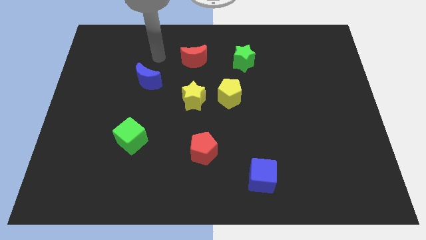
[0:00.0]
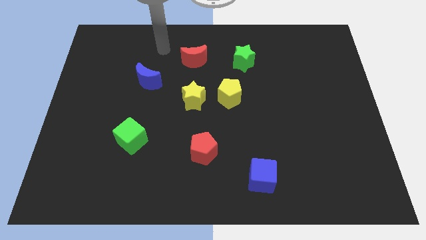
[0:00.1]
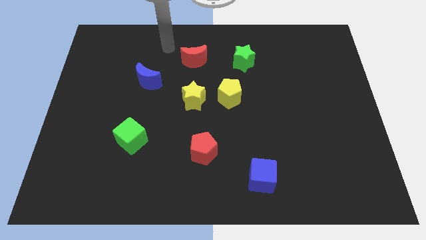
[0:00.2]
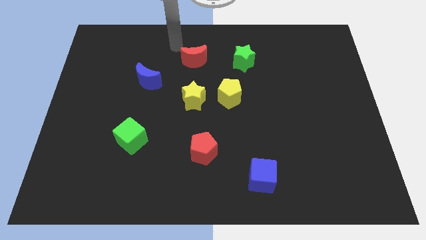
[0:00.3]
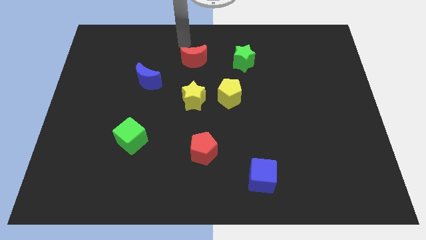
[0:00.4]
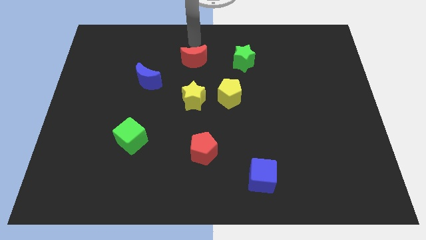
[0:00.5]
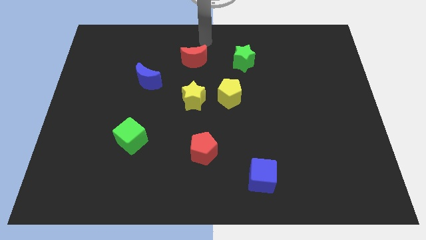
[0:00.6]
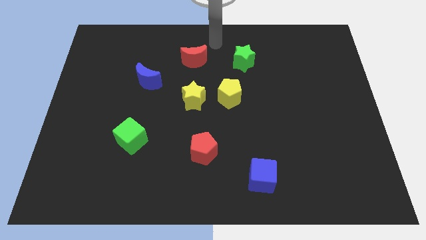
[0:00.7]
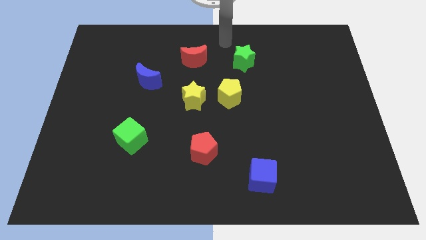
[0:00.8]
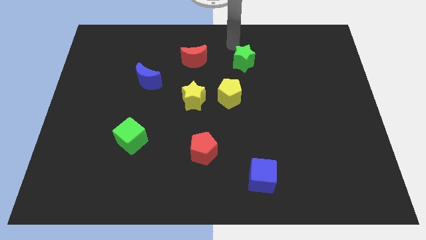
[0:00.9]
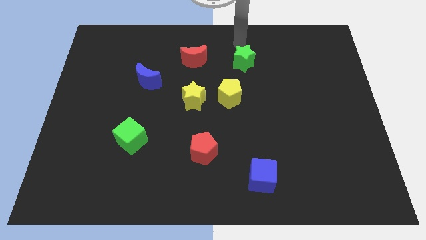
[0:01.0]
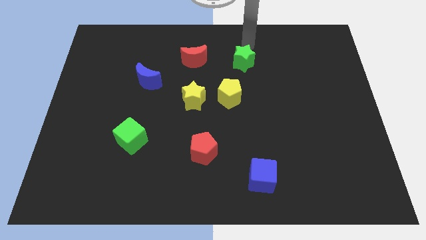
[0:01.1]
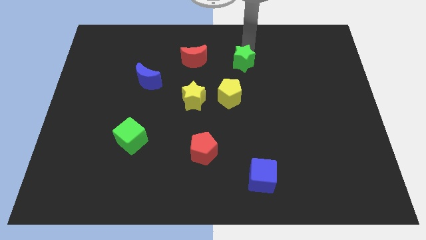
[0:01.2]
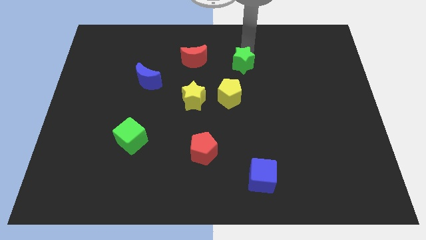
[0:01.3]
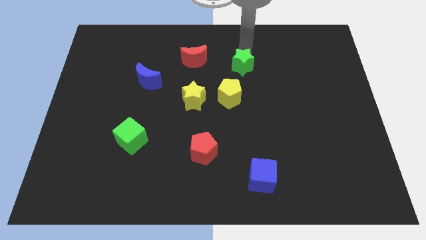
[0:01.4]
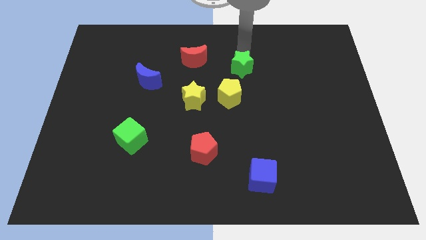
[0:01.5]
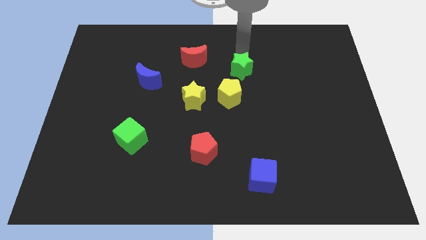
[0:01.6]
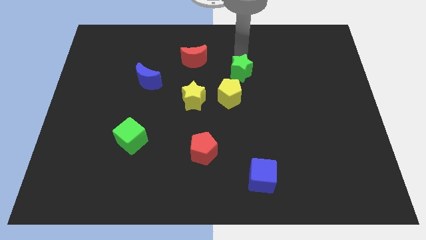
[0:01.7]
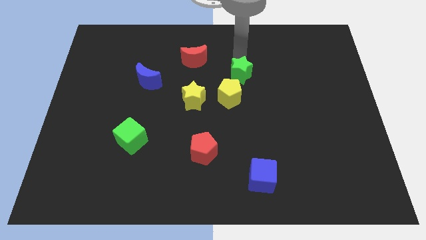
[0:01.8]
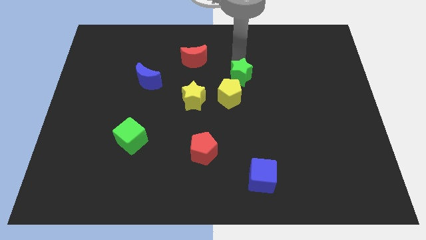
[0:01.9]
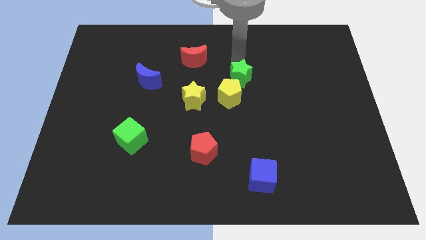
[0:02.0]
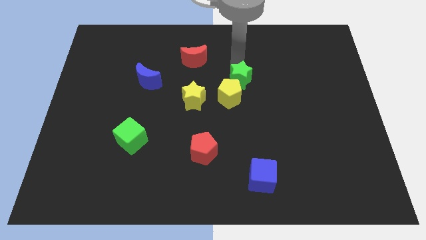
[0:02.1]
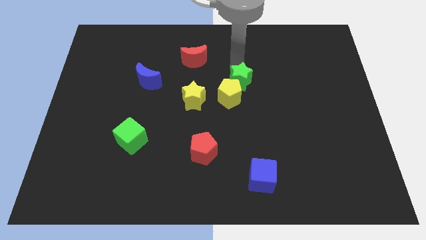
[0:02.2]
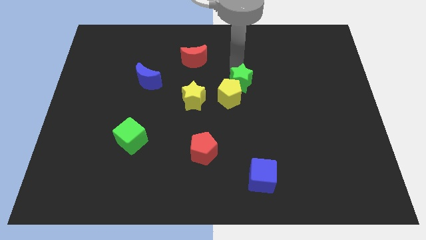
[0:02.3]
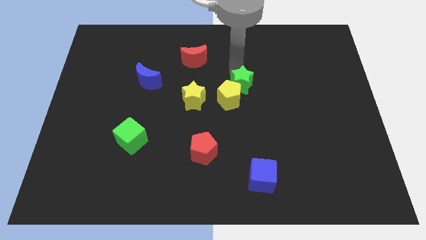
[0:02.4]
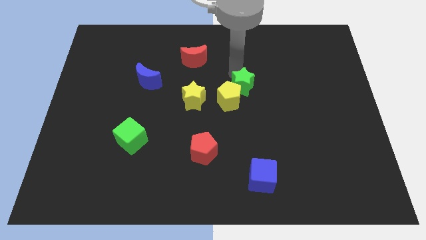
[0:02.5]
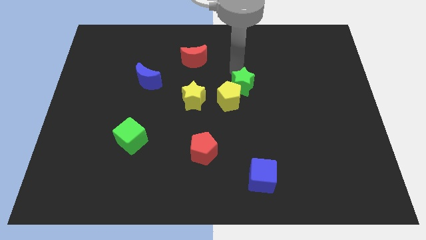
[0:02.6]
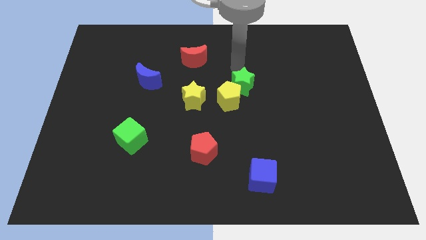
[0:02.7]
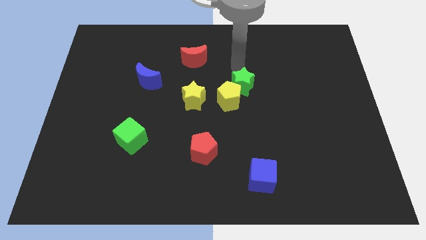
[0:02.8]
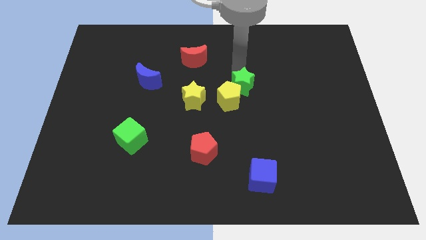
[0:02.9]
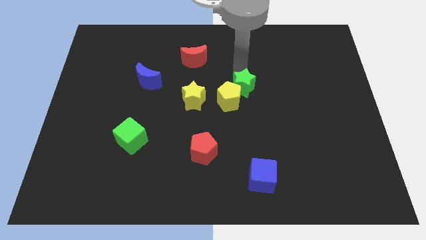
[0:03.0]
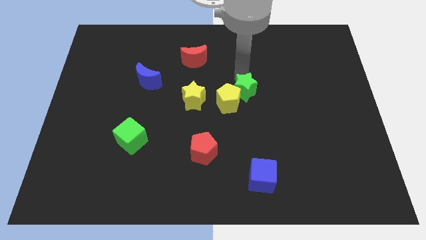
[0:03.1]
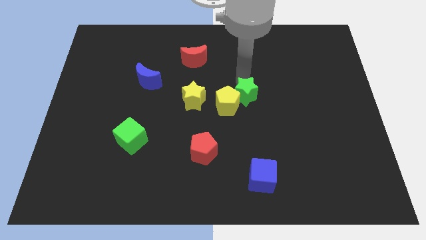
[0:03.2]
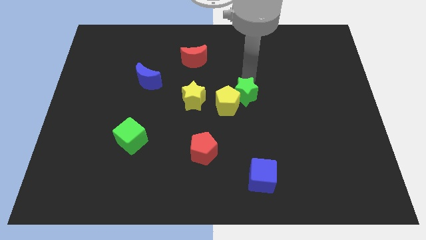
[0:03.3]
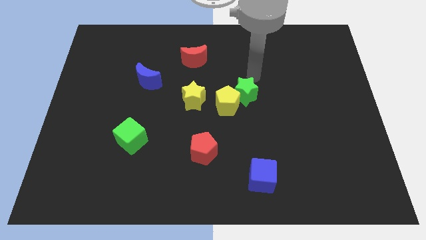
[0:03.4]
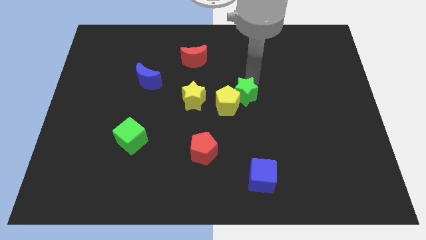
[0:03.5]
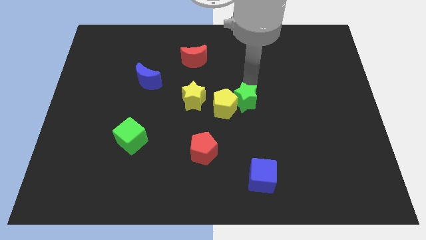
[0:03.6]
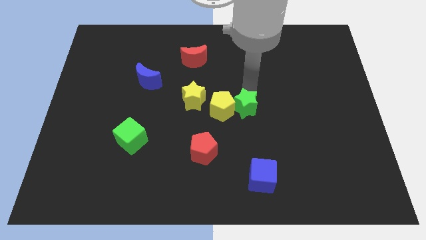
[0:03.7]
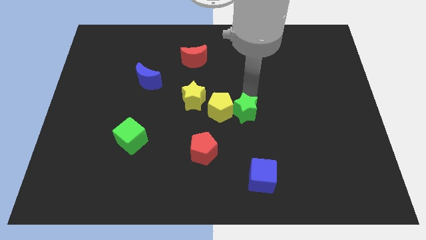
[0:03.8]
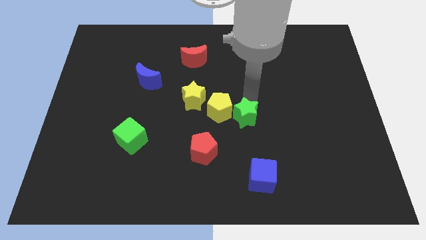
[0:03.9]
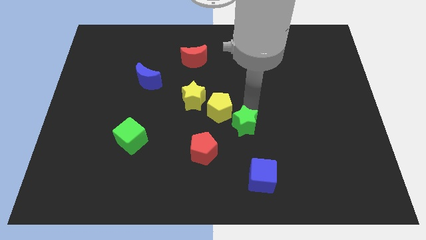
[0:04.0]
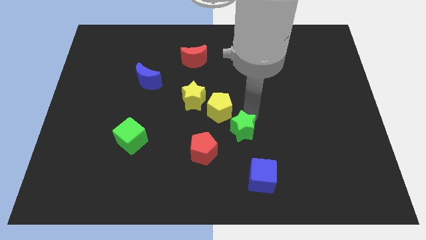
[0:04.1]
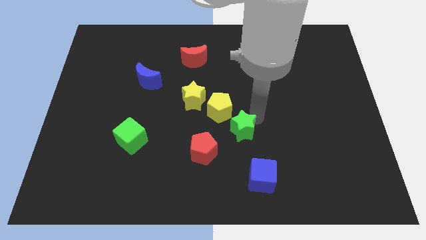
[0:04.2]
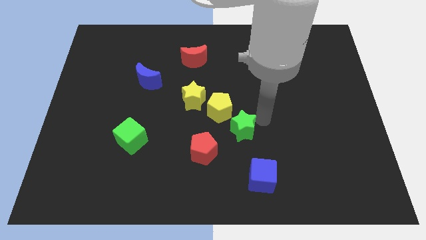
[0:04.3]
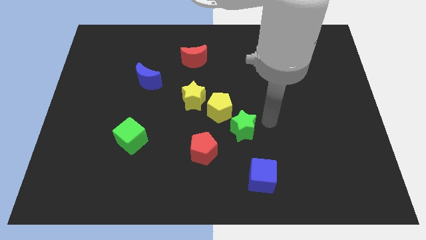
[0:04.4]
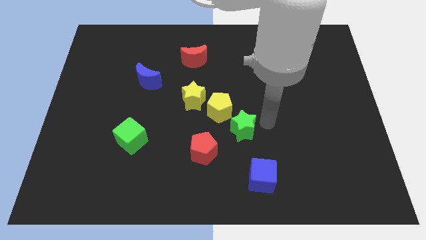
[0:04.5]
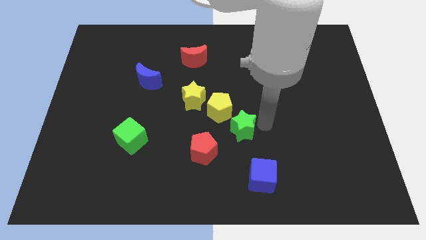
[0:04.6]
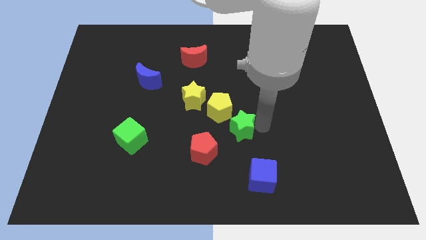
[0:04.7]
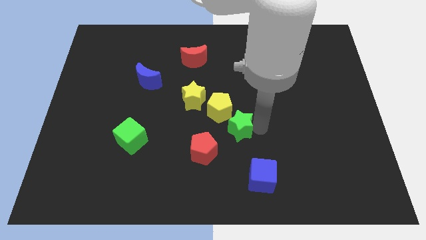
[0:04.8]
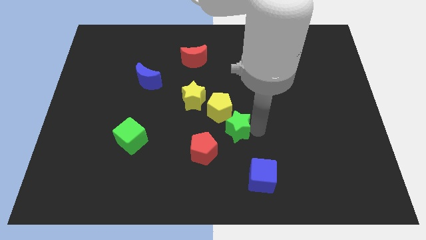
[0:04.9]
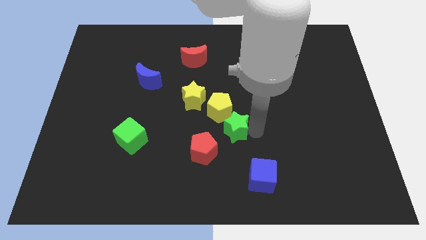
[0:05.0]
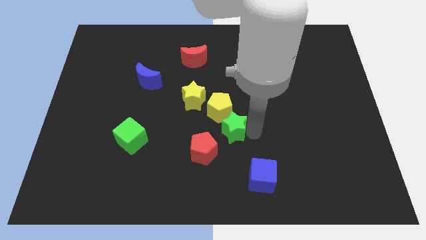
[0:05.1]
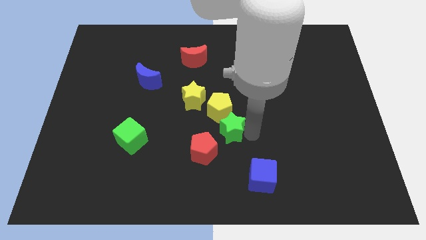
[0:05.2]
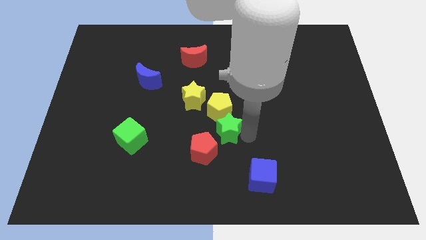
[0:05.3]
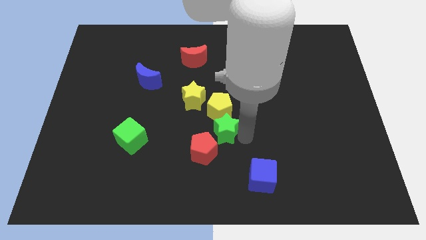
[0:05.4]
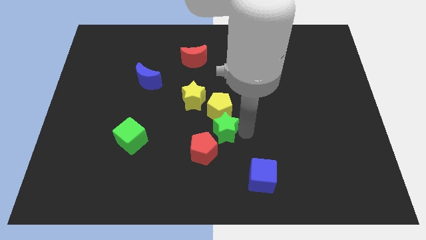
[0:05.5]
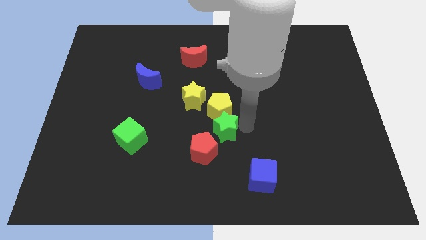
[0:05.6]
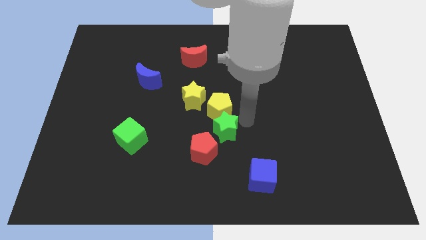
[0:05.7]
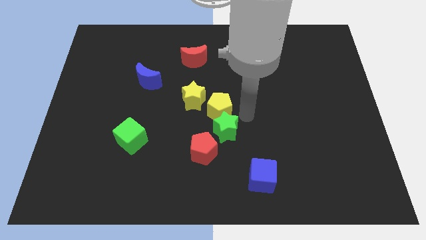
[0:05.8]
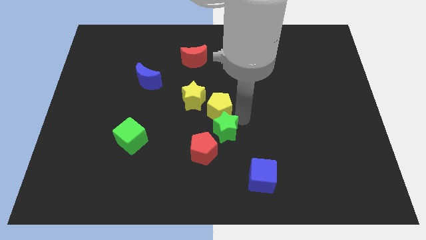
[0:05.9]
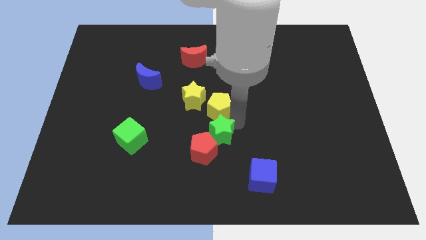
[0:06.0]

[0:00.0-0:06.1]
move the green star towards the red pentagon
